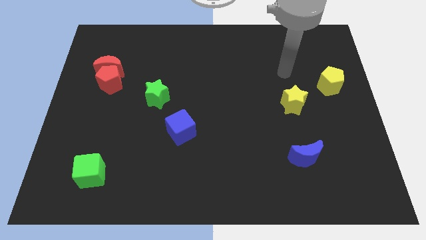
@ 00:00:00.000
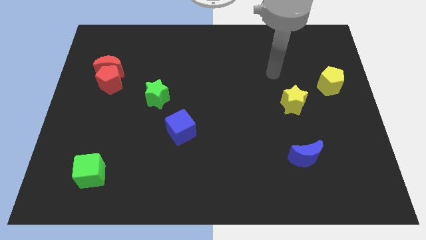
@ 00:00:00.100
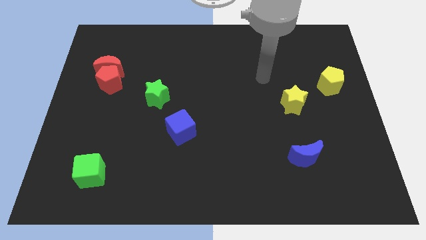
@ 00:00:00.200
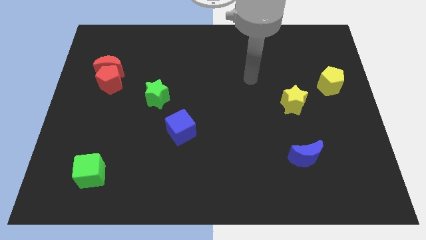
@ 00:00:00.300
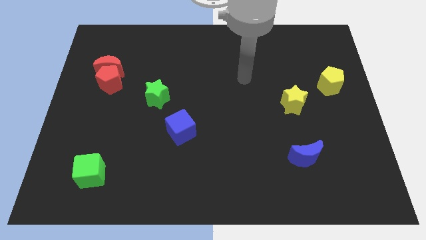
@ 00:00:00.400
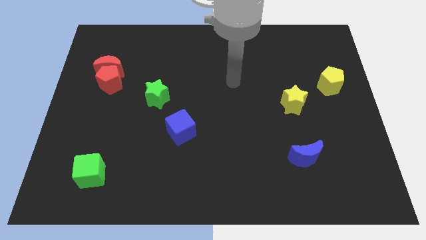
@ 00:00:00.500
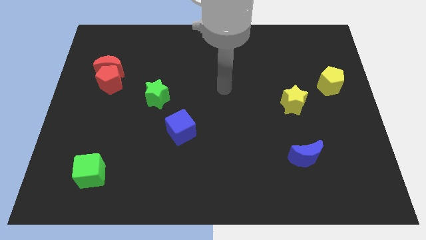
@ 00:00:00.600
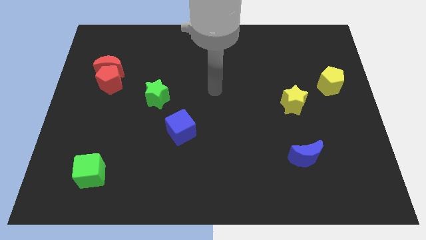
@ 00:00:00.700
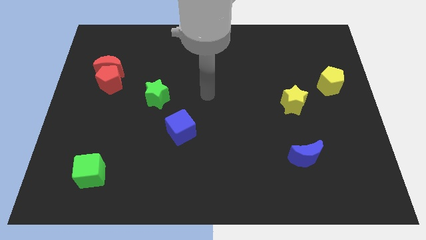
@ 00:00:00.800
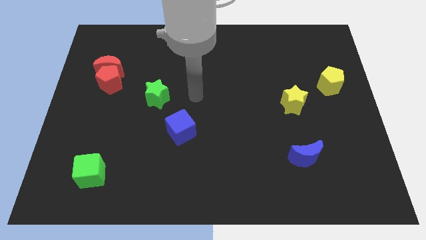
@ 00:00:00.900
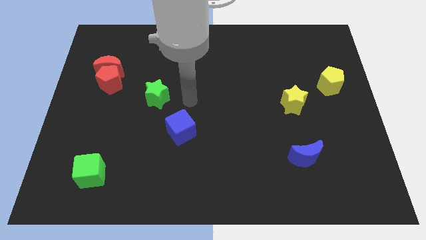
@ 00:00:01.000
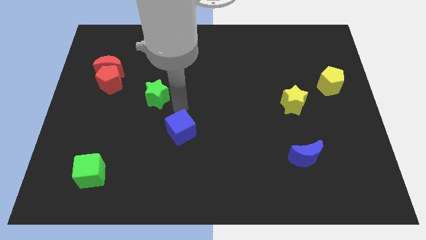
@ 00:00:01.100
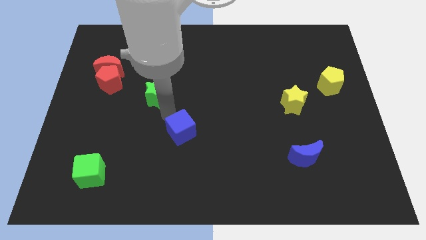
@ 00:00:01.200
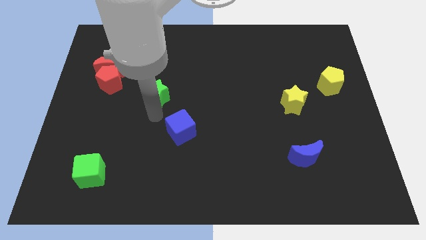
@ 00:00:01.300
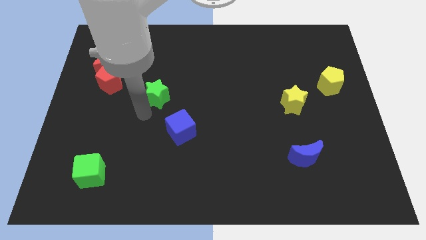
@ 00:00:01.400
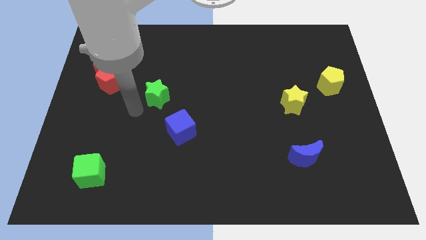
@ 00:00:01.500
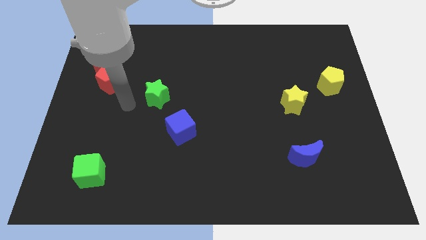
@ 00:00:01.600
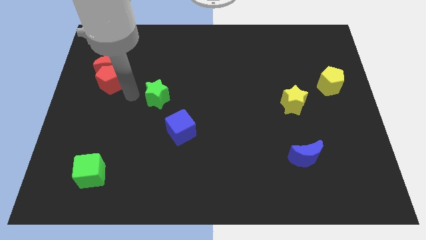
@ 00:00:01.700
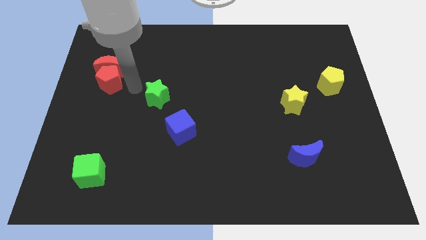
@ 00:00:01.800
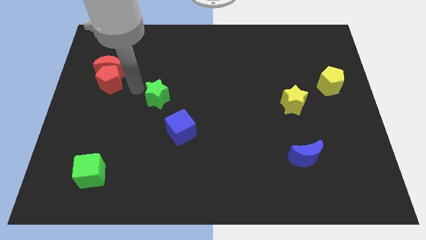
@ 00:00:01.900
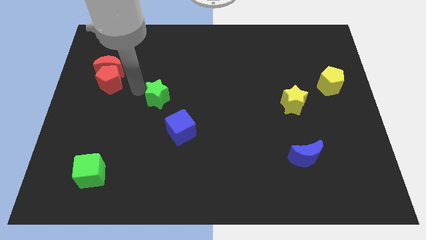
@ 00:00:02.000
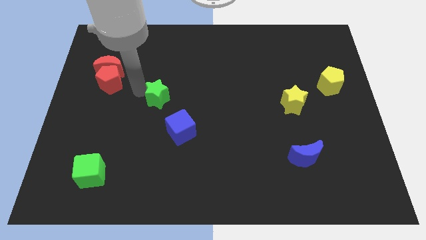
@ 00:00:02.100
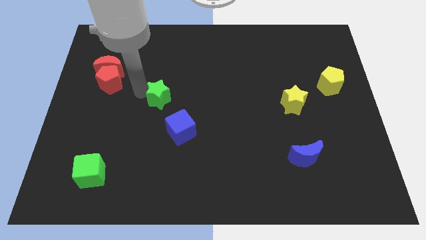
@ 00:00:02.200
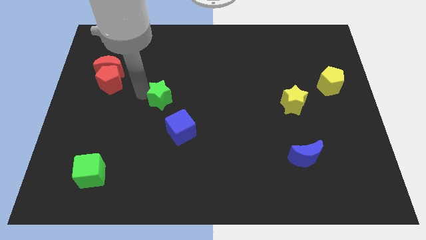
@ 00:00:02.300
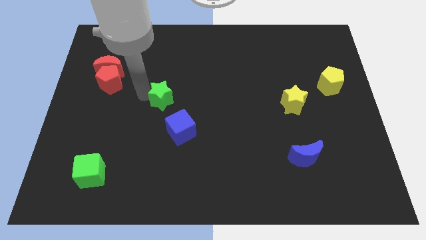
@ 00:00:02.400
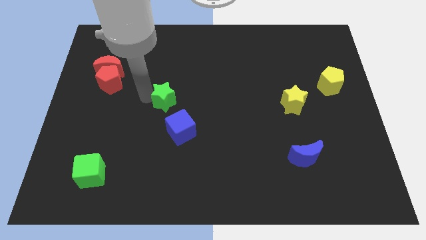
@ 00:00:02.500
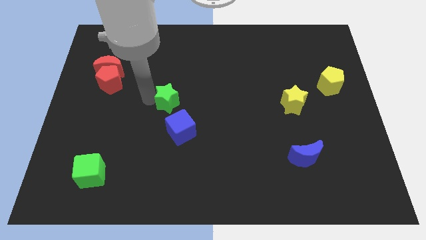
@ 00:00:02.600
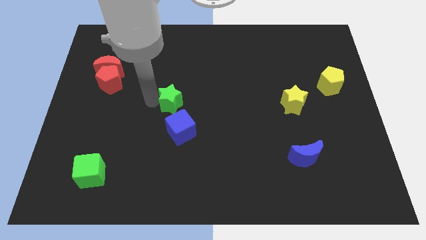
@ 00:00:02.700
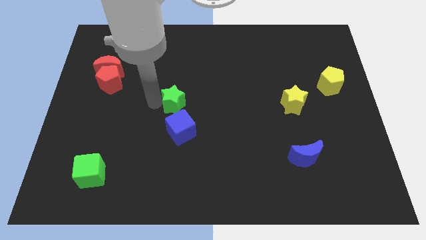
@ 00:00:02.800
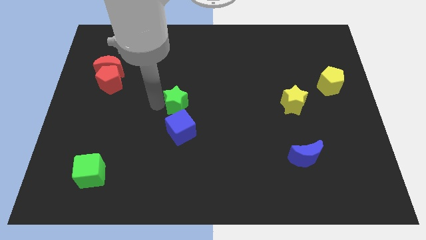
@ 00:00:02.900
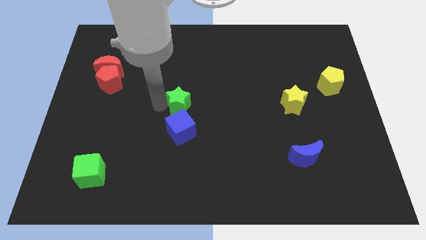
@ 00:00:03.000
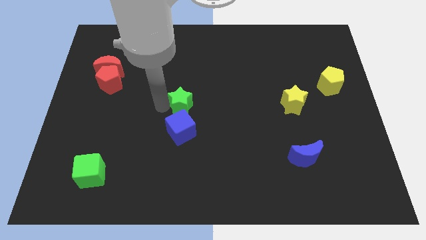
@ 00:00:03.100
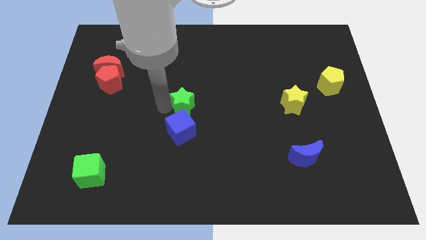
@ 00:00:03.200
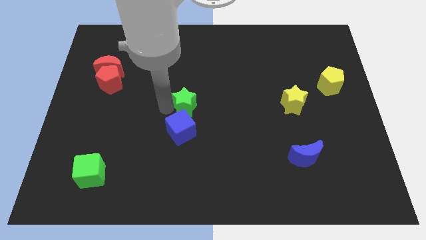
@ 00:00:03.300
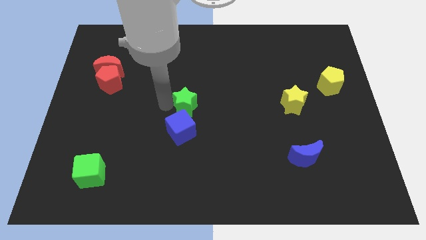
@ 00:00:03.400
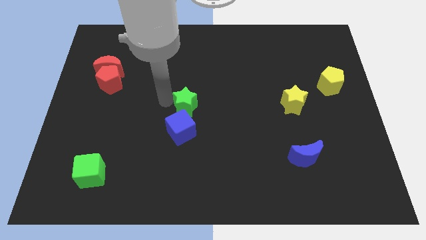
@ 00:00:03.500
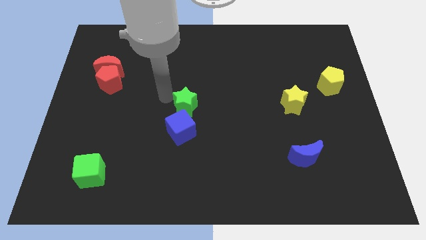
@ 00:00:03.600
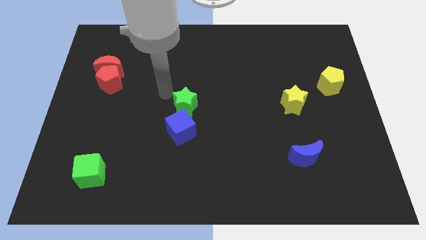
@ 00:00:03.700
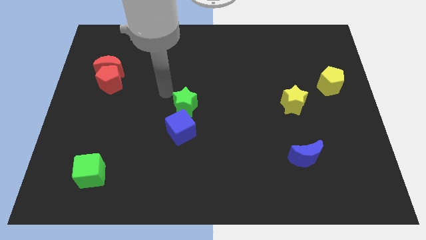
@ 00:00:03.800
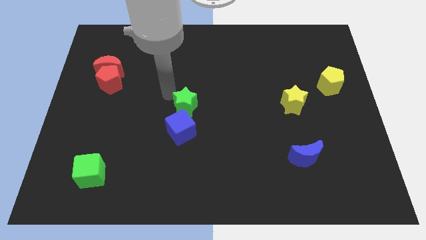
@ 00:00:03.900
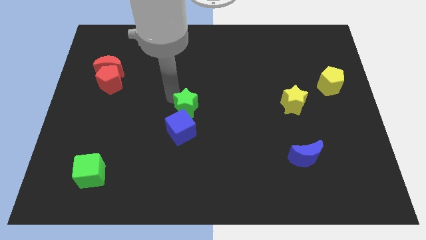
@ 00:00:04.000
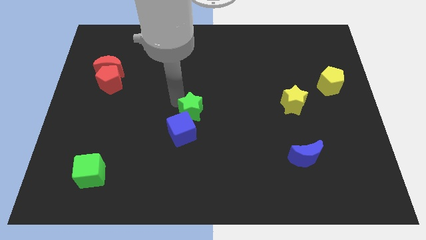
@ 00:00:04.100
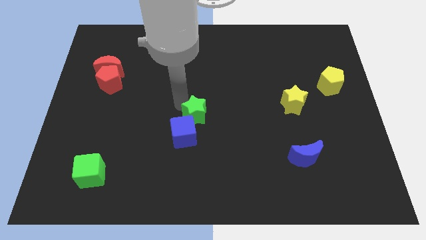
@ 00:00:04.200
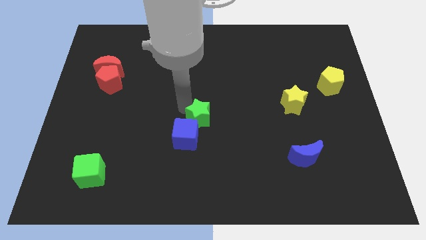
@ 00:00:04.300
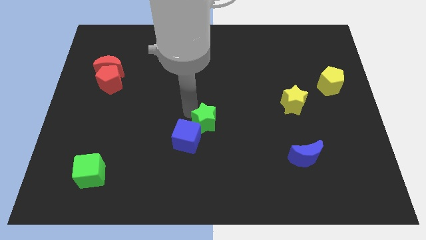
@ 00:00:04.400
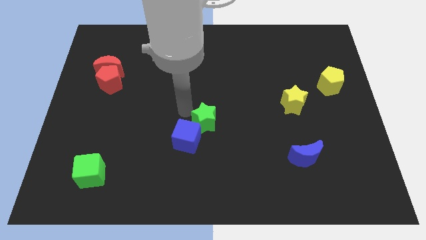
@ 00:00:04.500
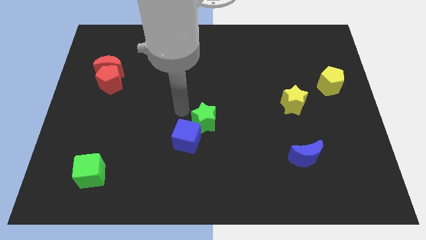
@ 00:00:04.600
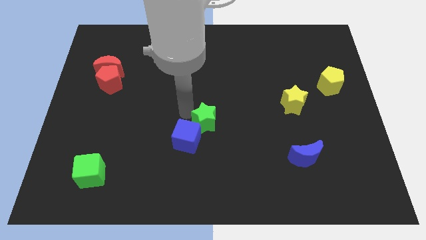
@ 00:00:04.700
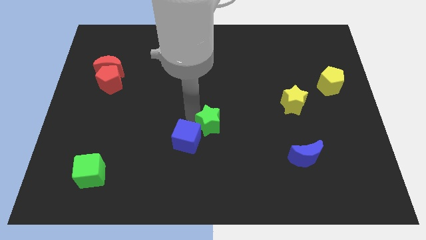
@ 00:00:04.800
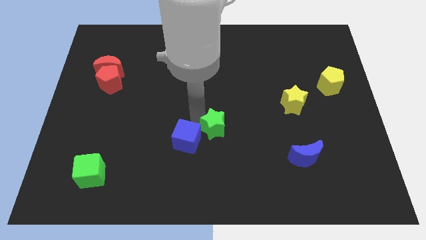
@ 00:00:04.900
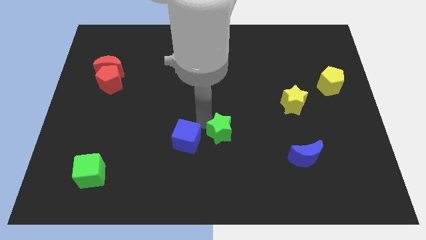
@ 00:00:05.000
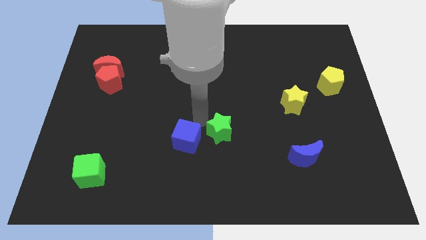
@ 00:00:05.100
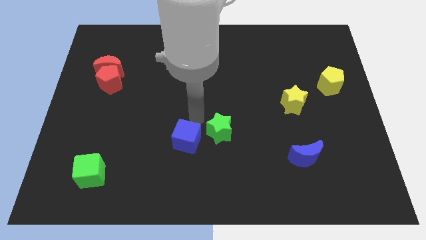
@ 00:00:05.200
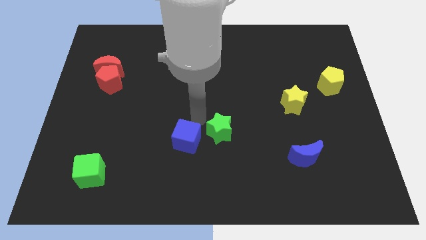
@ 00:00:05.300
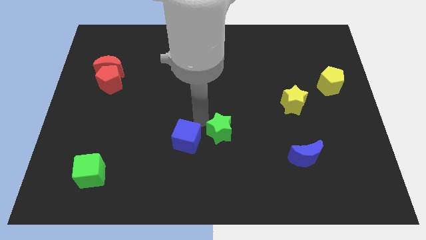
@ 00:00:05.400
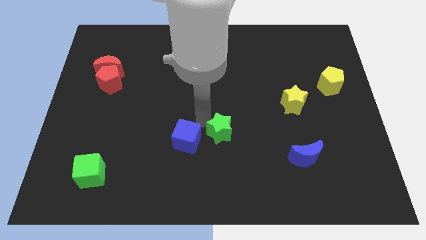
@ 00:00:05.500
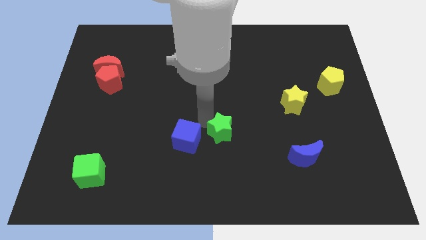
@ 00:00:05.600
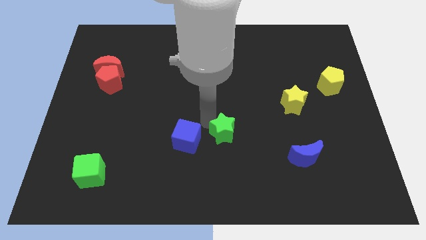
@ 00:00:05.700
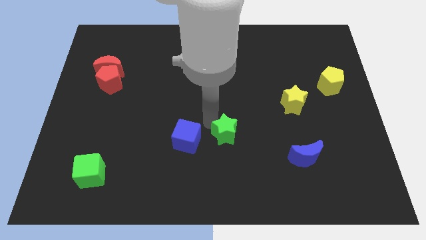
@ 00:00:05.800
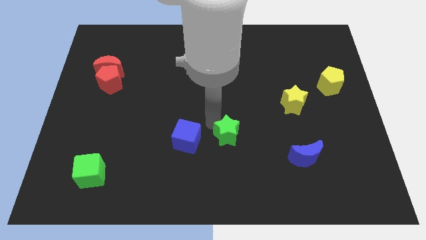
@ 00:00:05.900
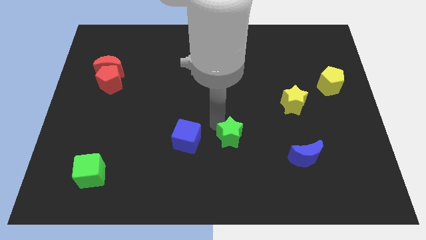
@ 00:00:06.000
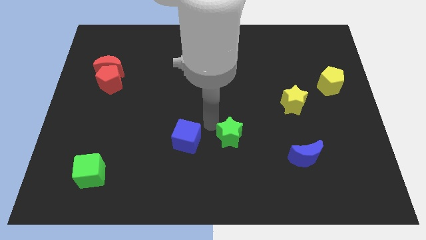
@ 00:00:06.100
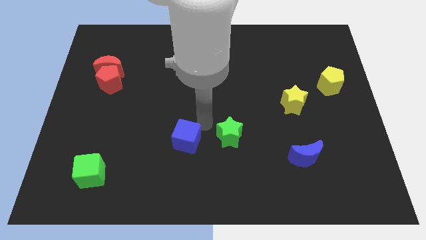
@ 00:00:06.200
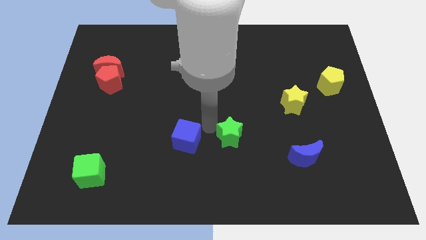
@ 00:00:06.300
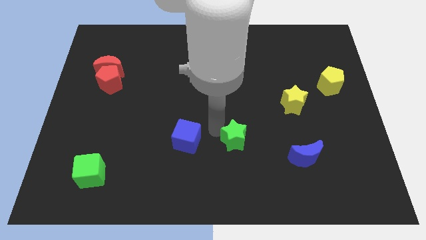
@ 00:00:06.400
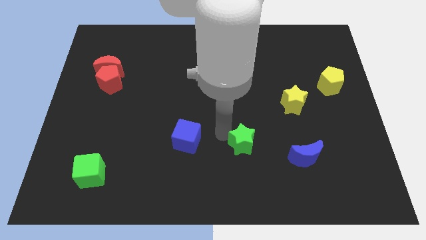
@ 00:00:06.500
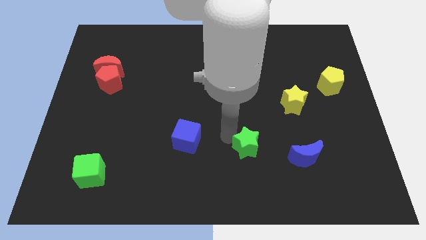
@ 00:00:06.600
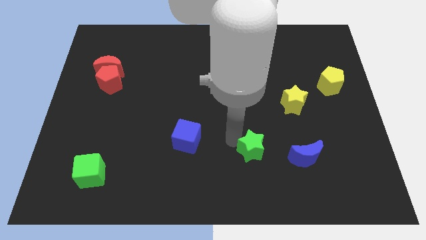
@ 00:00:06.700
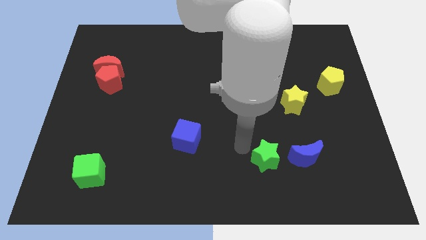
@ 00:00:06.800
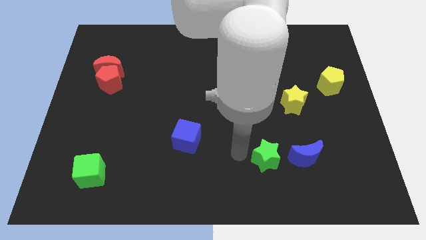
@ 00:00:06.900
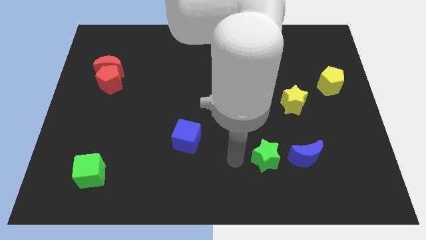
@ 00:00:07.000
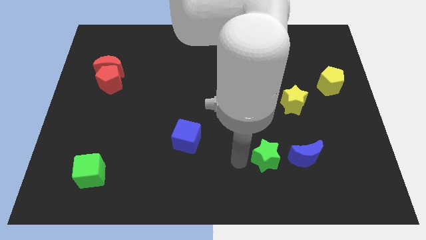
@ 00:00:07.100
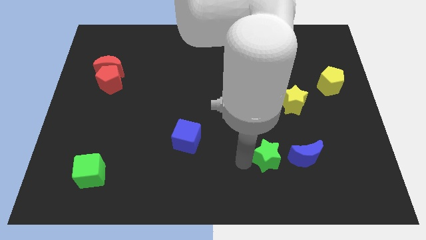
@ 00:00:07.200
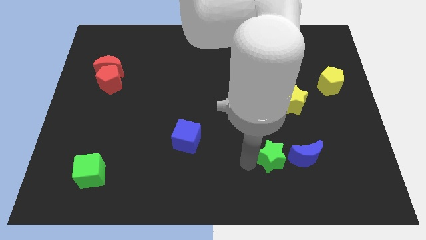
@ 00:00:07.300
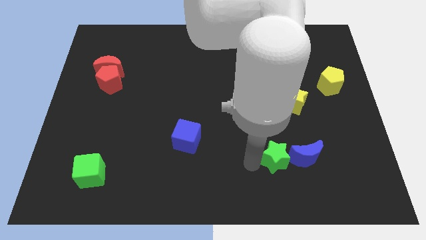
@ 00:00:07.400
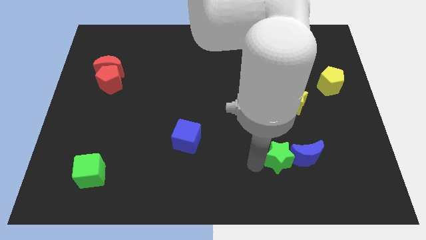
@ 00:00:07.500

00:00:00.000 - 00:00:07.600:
put the green star to the blue moon
